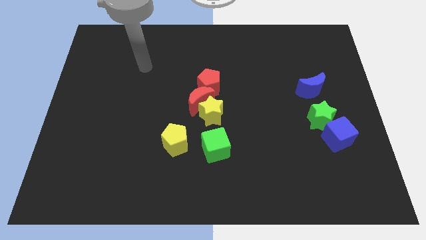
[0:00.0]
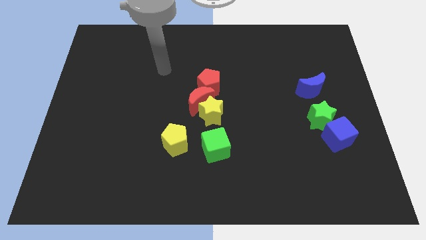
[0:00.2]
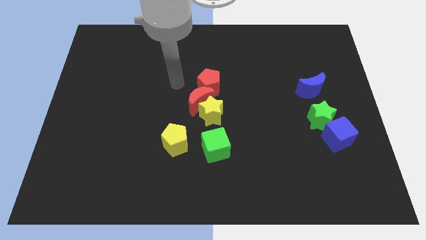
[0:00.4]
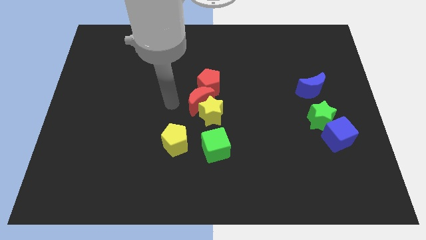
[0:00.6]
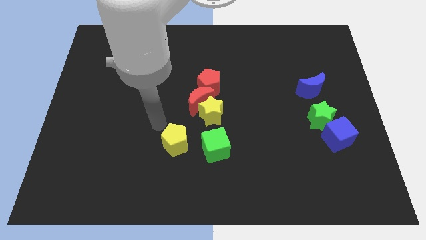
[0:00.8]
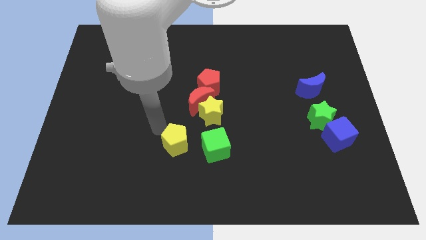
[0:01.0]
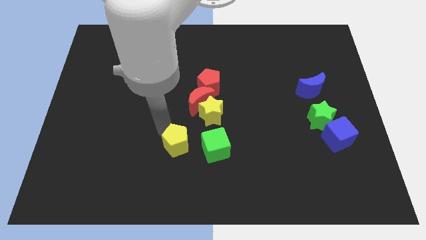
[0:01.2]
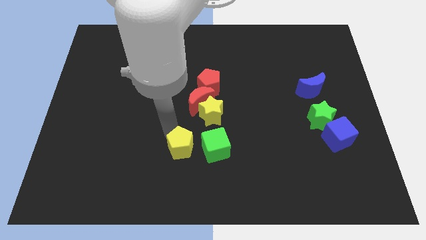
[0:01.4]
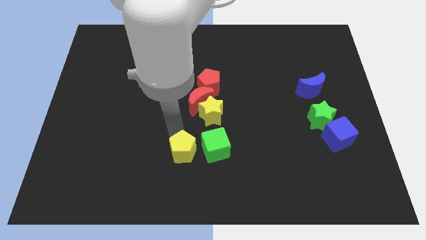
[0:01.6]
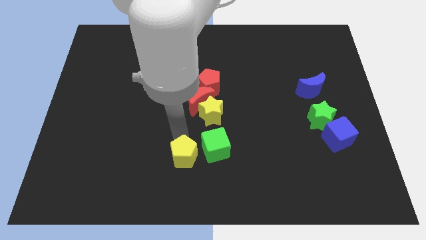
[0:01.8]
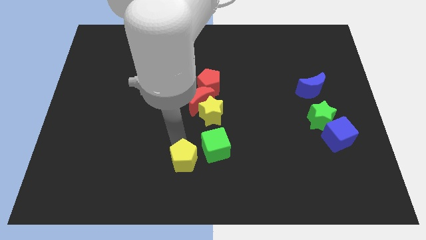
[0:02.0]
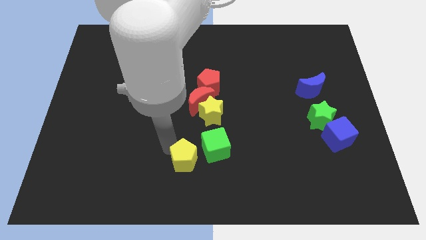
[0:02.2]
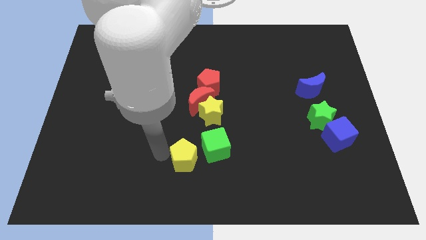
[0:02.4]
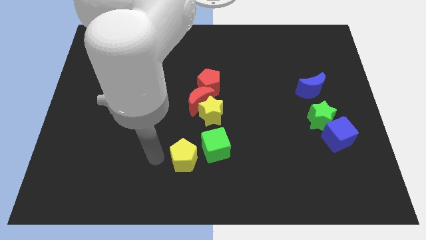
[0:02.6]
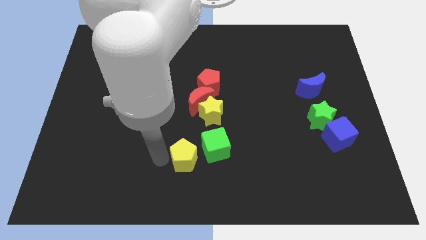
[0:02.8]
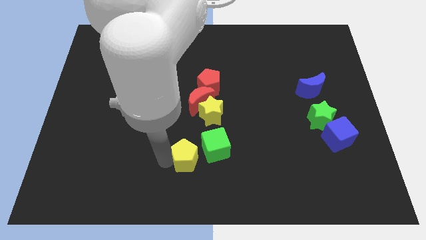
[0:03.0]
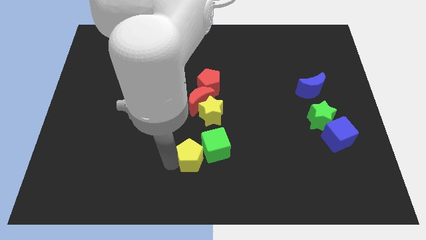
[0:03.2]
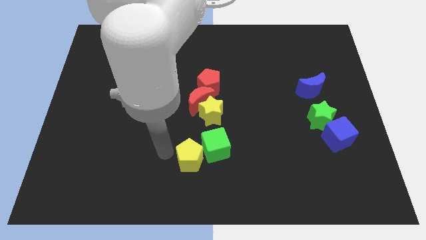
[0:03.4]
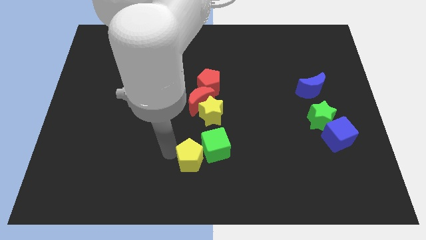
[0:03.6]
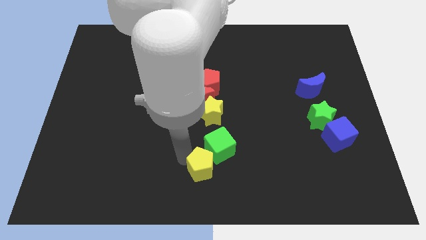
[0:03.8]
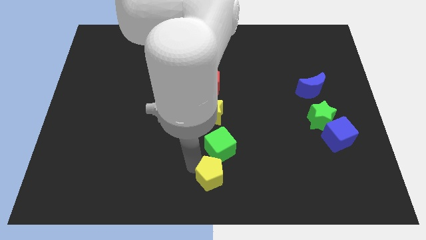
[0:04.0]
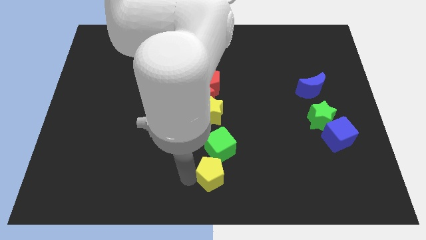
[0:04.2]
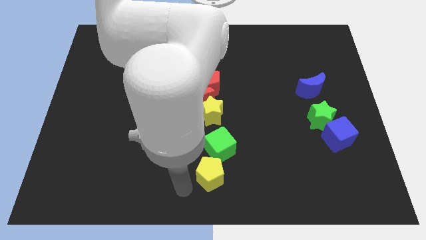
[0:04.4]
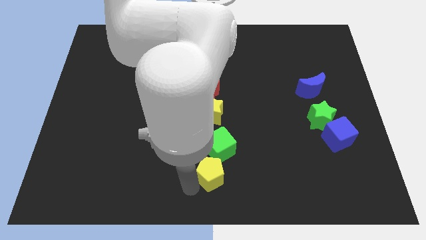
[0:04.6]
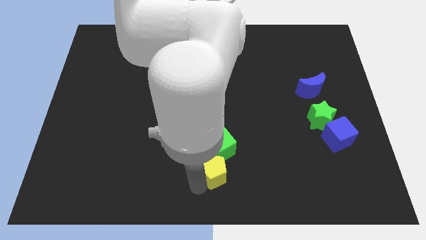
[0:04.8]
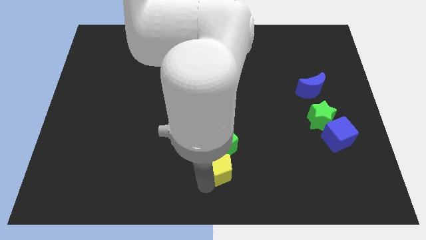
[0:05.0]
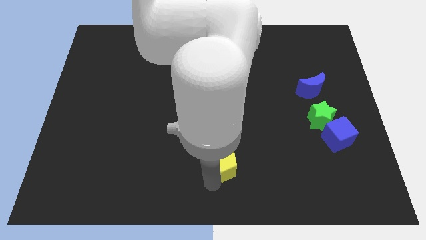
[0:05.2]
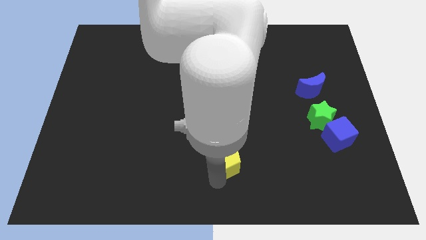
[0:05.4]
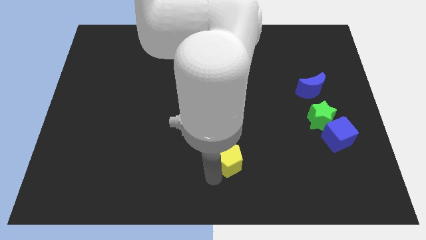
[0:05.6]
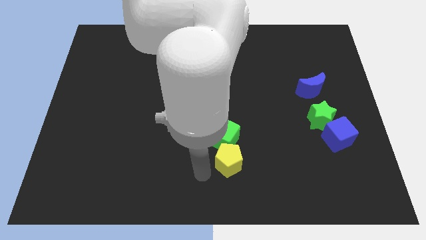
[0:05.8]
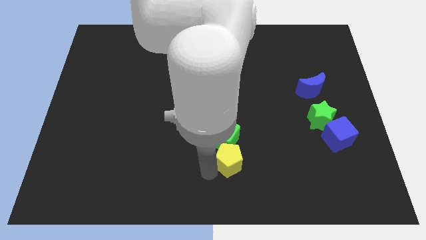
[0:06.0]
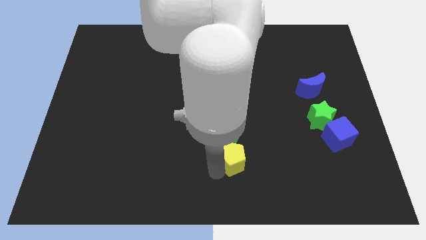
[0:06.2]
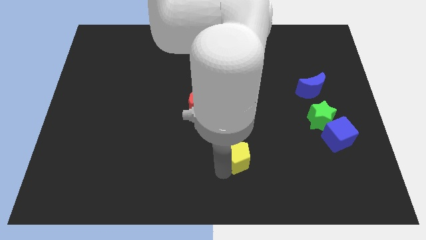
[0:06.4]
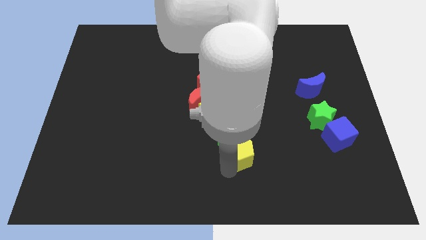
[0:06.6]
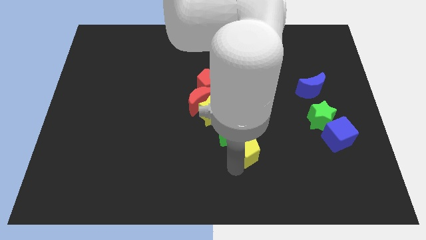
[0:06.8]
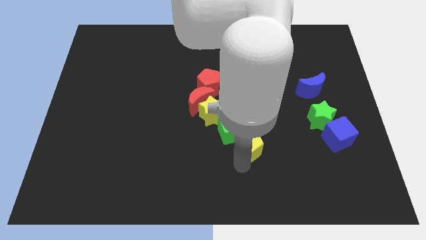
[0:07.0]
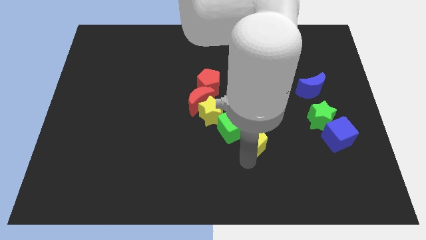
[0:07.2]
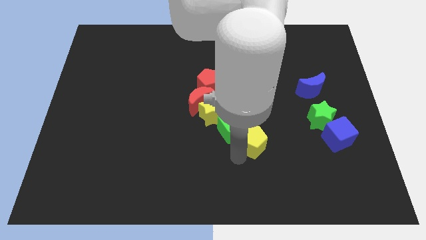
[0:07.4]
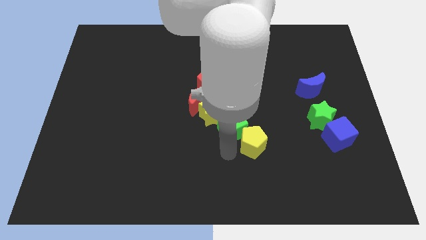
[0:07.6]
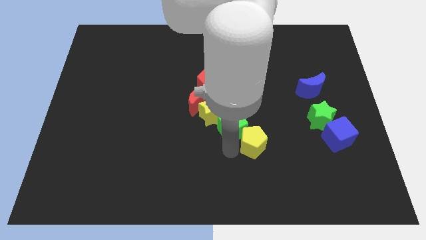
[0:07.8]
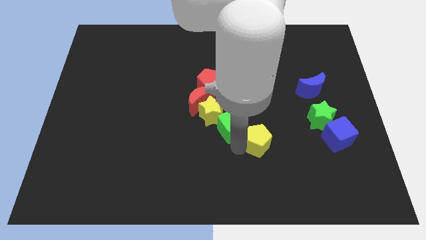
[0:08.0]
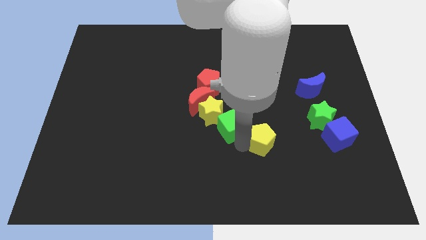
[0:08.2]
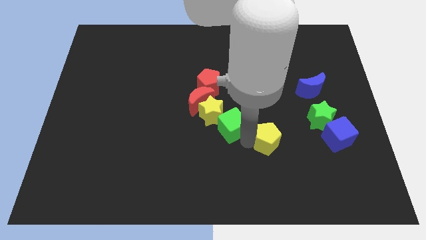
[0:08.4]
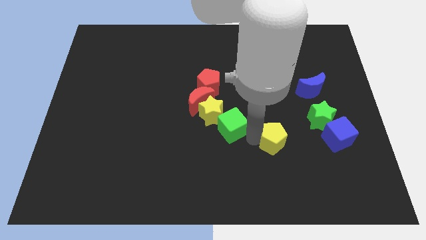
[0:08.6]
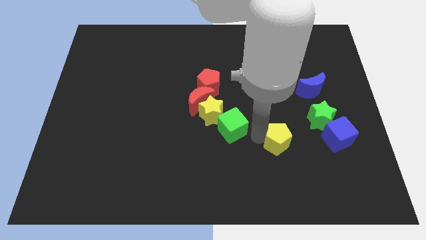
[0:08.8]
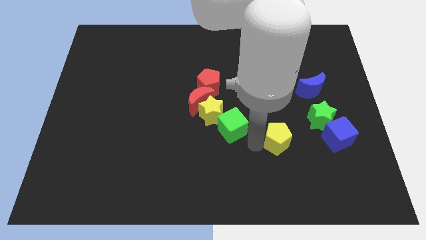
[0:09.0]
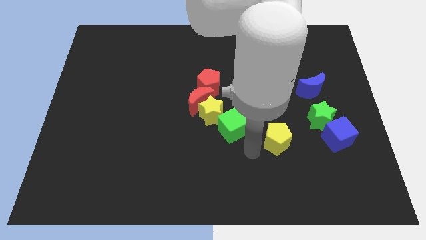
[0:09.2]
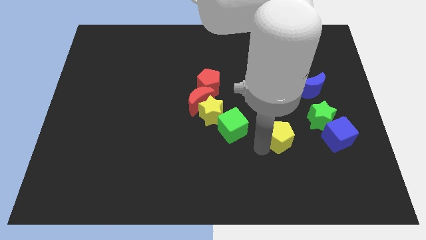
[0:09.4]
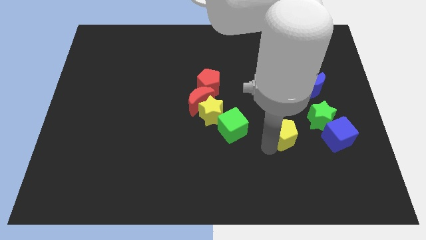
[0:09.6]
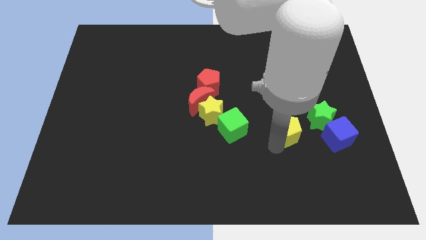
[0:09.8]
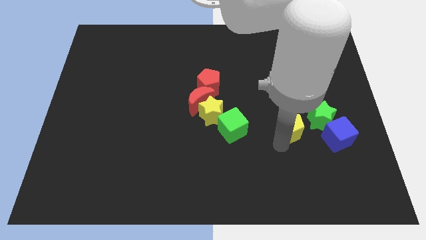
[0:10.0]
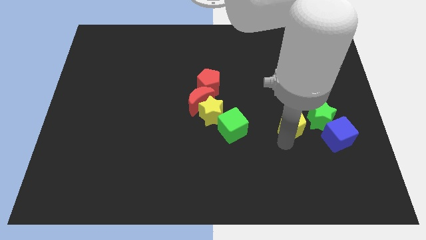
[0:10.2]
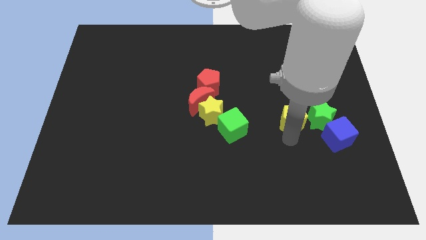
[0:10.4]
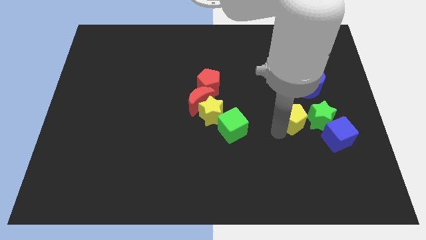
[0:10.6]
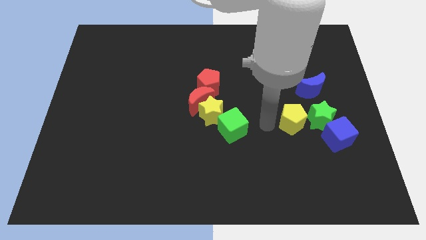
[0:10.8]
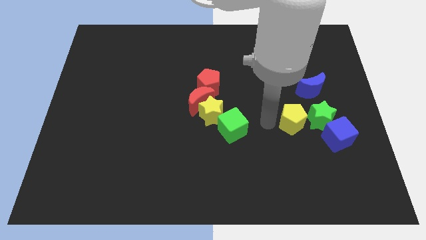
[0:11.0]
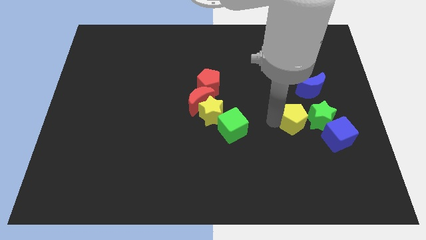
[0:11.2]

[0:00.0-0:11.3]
put the yellow pentagon next to the green star

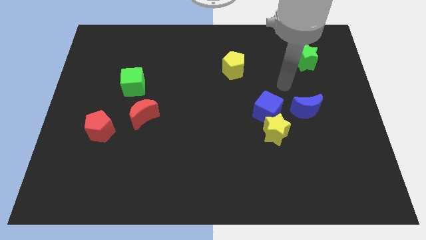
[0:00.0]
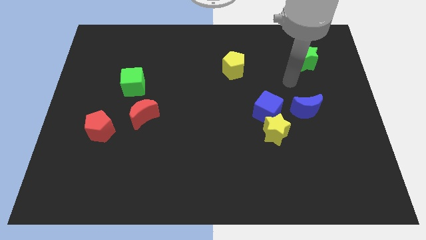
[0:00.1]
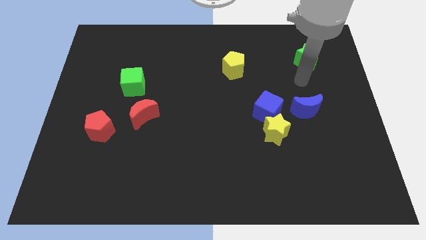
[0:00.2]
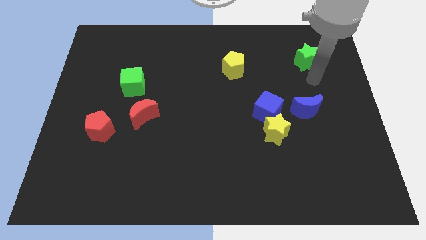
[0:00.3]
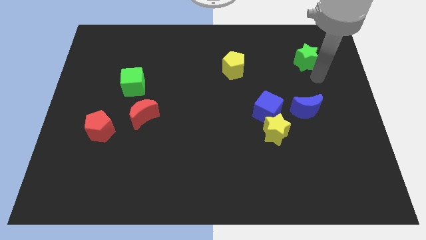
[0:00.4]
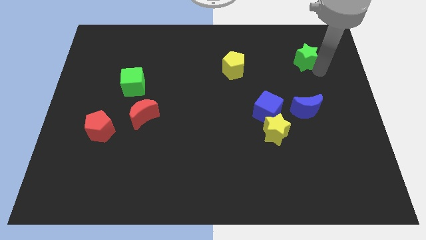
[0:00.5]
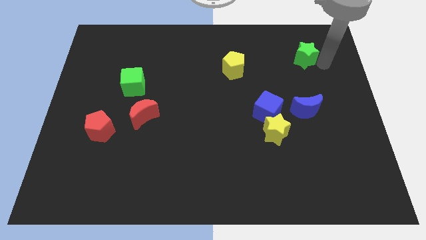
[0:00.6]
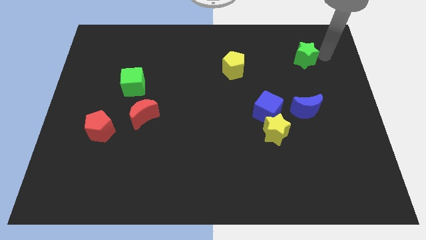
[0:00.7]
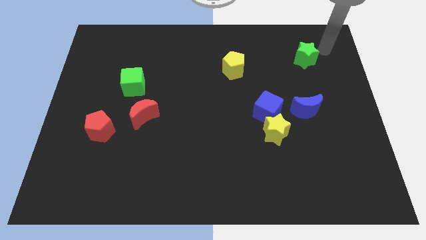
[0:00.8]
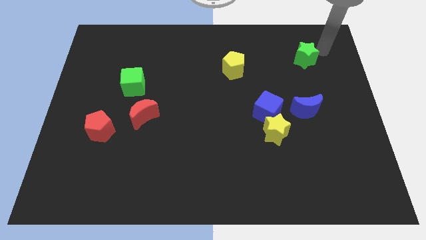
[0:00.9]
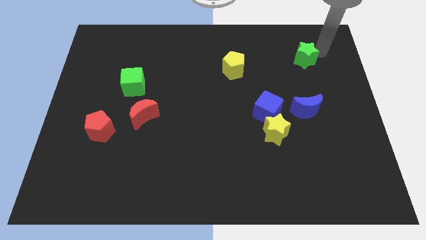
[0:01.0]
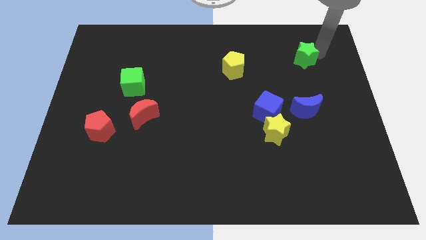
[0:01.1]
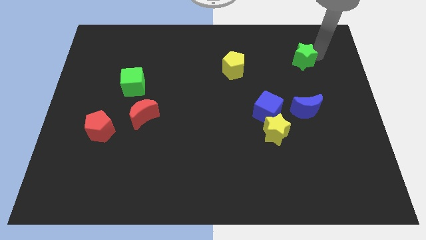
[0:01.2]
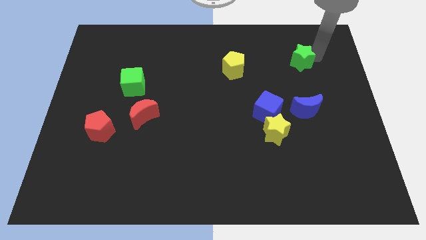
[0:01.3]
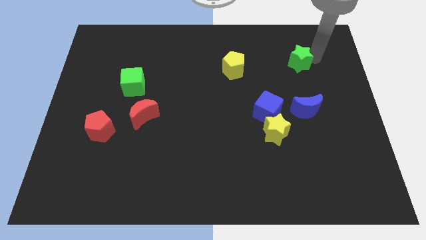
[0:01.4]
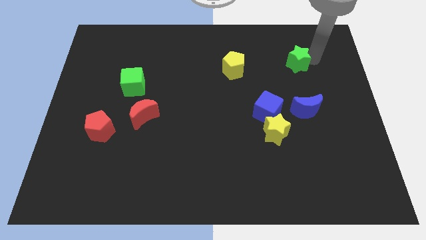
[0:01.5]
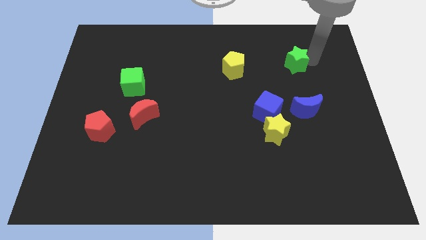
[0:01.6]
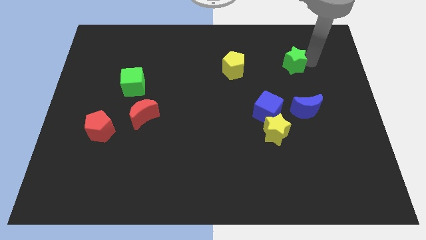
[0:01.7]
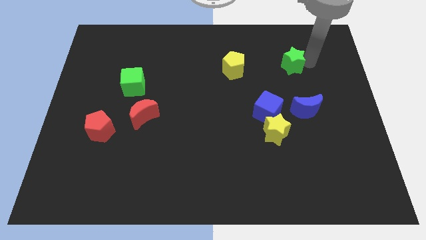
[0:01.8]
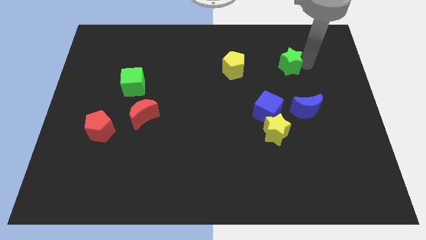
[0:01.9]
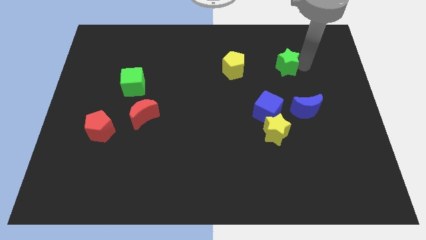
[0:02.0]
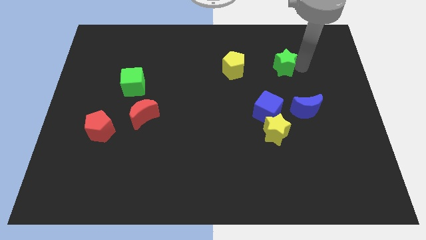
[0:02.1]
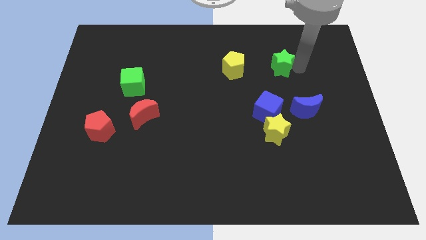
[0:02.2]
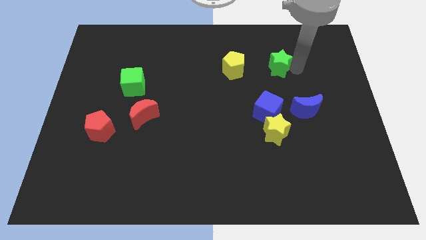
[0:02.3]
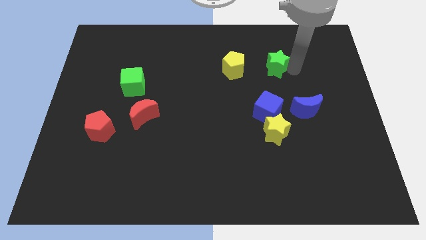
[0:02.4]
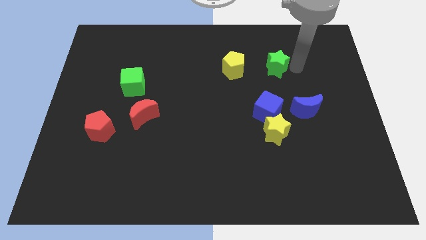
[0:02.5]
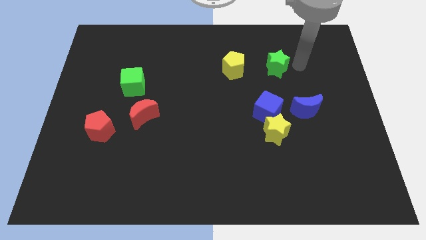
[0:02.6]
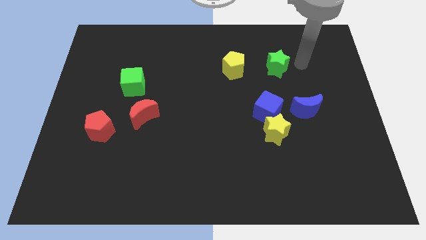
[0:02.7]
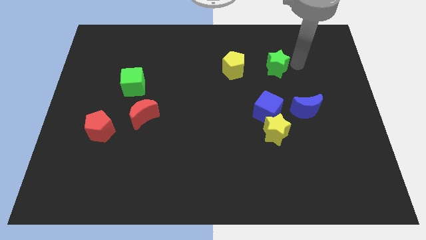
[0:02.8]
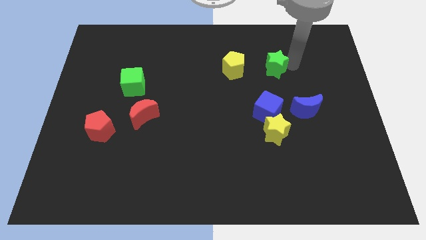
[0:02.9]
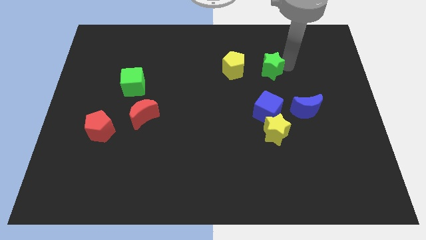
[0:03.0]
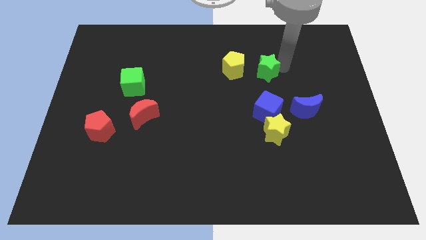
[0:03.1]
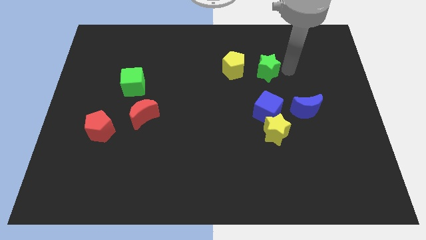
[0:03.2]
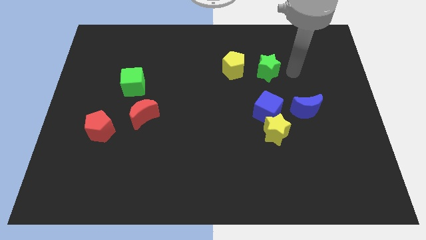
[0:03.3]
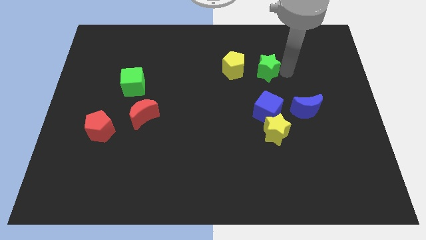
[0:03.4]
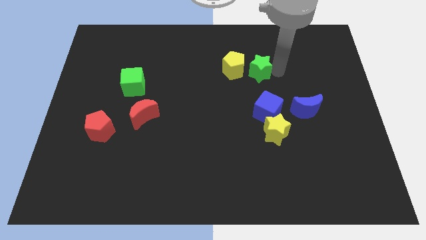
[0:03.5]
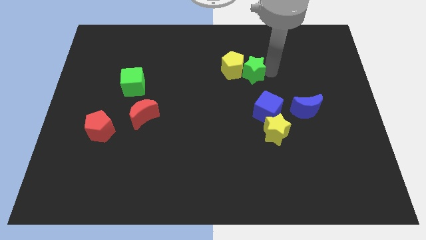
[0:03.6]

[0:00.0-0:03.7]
move the green star close to the yellow pentagon
